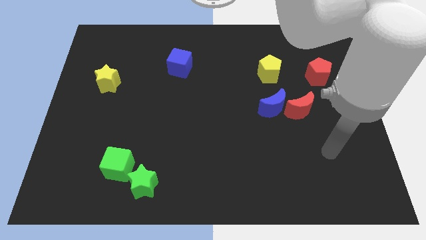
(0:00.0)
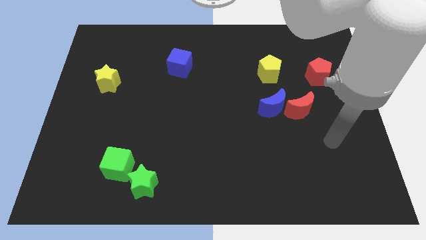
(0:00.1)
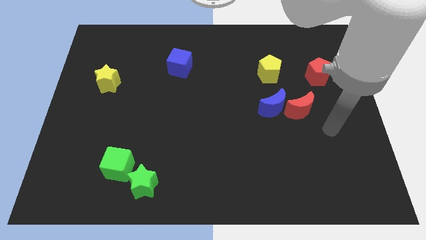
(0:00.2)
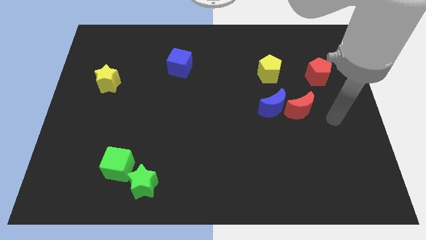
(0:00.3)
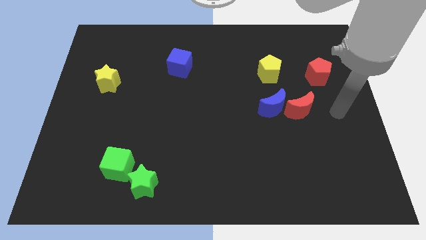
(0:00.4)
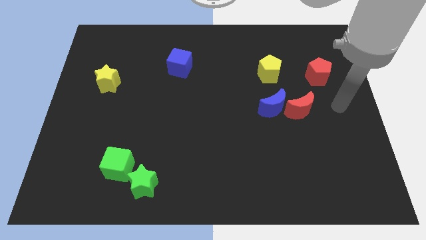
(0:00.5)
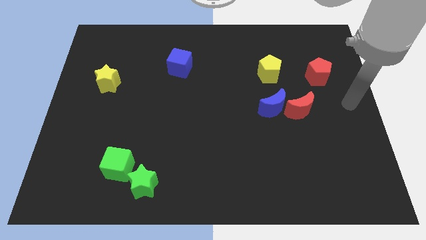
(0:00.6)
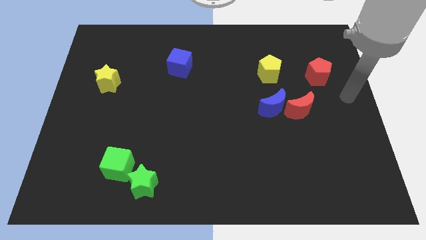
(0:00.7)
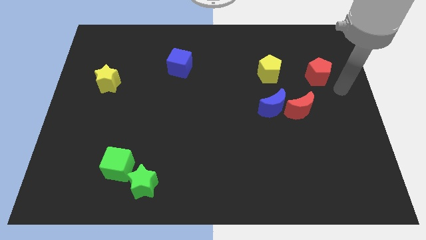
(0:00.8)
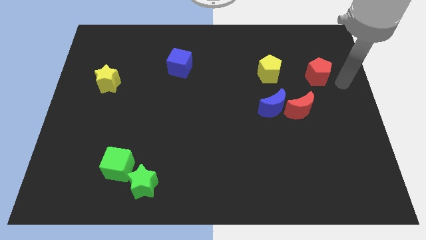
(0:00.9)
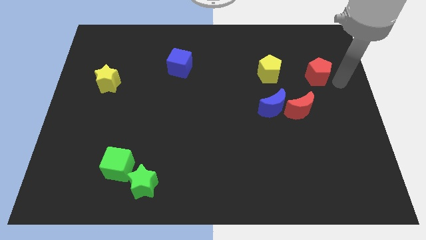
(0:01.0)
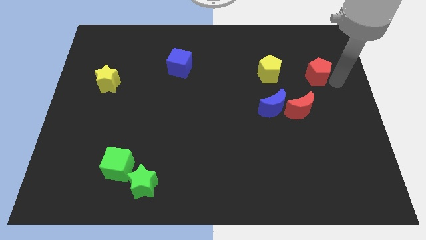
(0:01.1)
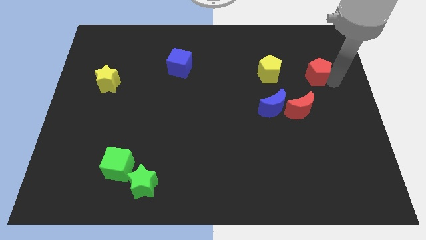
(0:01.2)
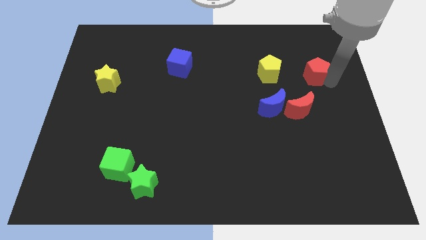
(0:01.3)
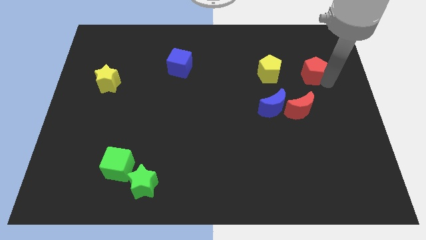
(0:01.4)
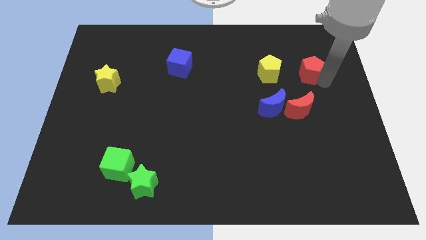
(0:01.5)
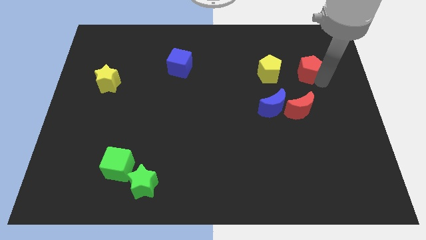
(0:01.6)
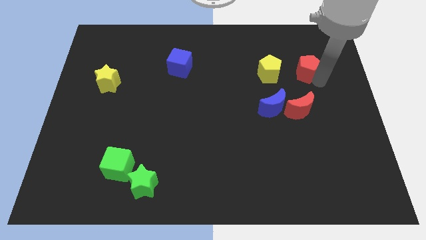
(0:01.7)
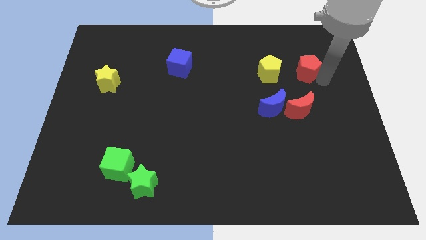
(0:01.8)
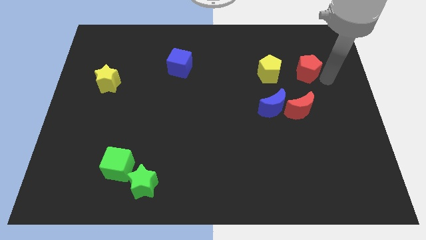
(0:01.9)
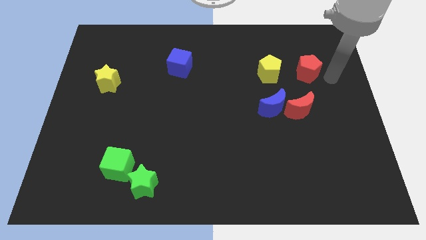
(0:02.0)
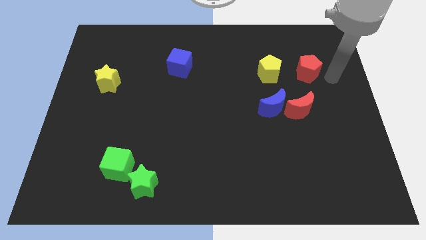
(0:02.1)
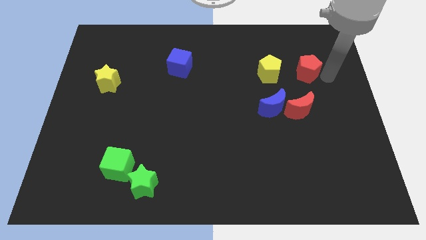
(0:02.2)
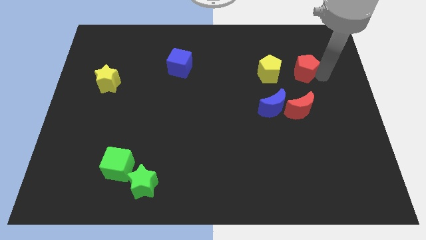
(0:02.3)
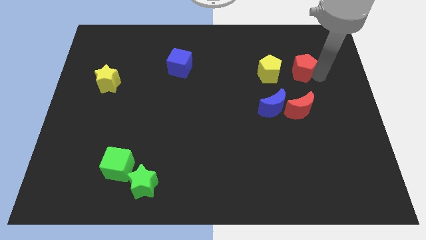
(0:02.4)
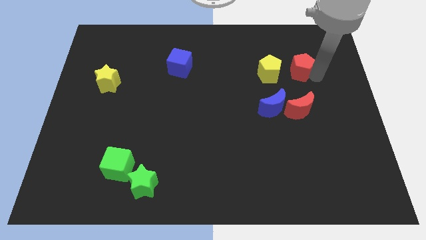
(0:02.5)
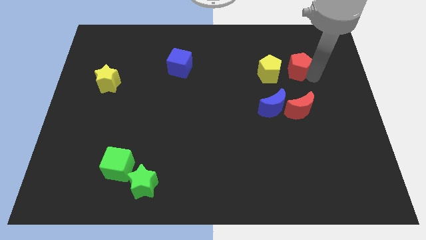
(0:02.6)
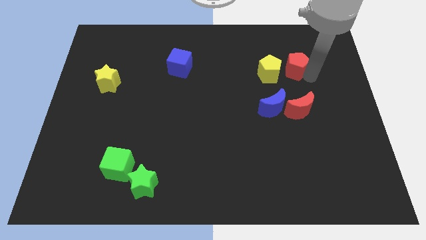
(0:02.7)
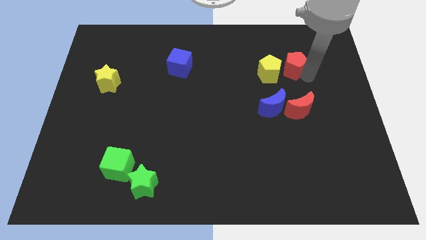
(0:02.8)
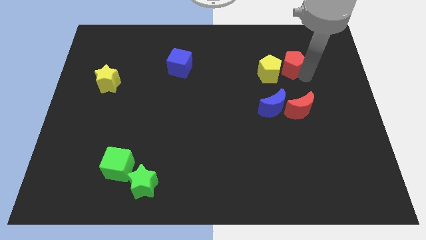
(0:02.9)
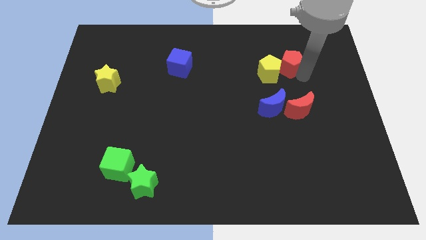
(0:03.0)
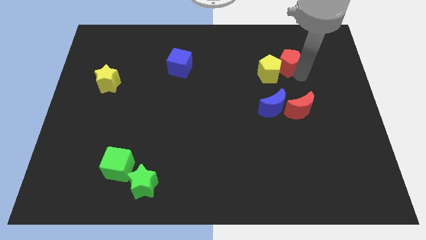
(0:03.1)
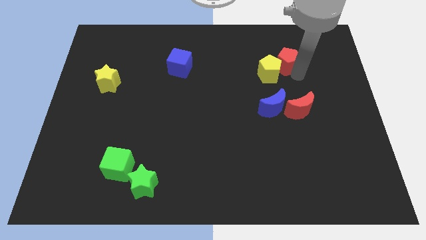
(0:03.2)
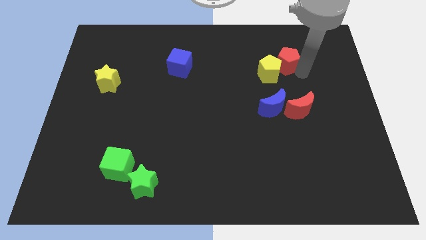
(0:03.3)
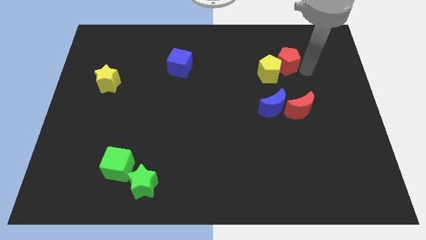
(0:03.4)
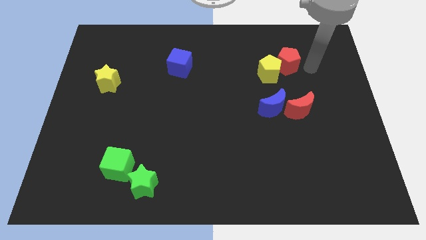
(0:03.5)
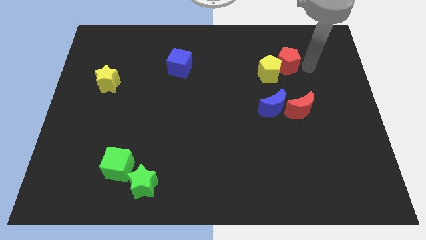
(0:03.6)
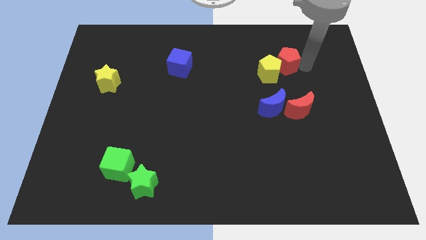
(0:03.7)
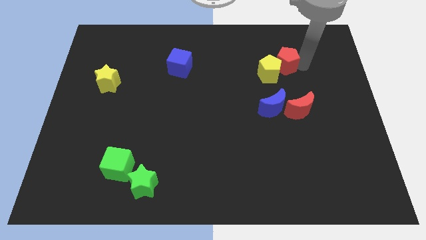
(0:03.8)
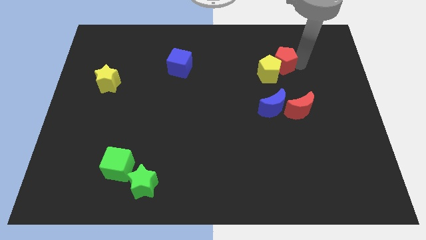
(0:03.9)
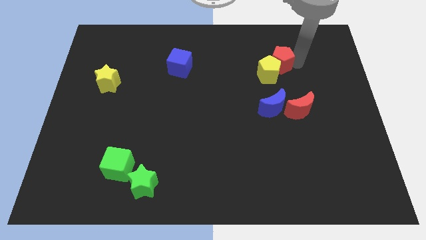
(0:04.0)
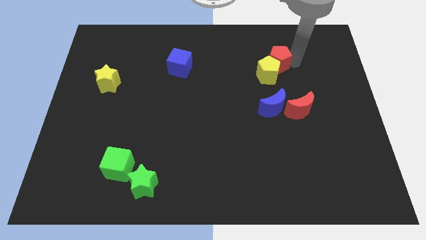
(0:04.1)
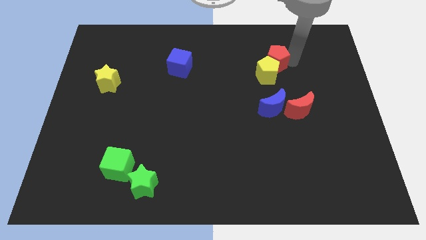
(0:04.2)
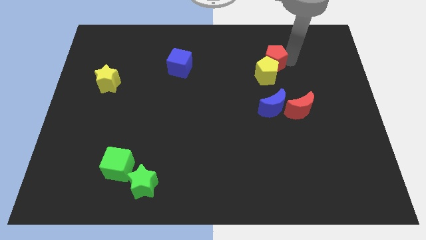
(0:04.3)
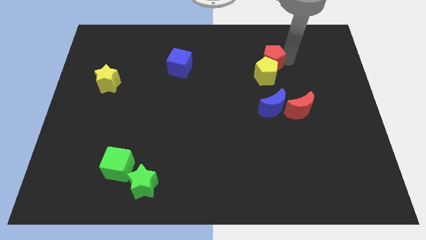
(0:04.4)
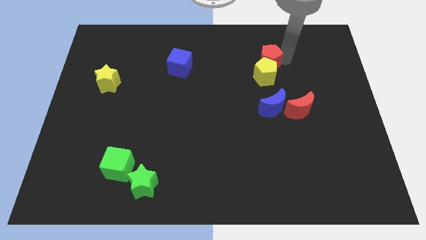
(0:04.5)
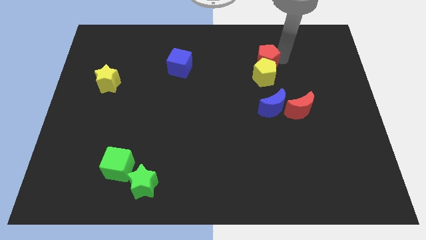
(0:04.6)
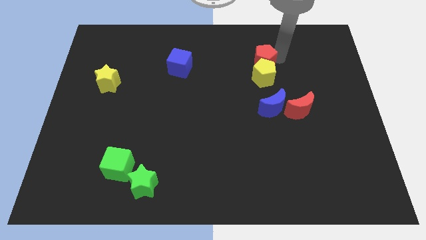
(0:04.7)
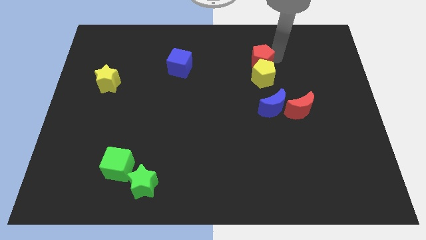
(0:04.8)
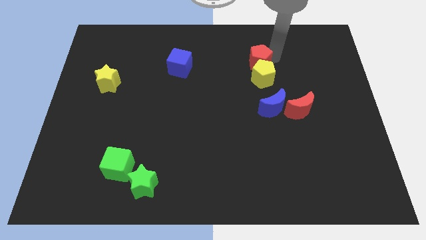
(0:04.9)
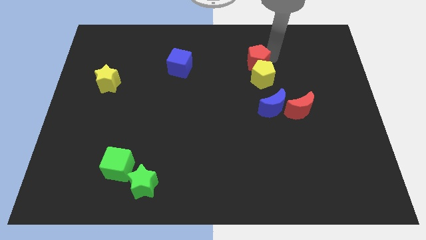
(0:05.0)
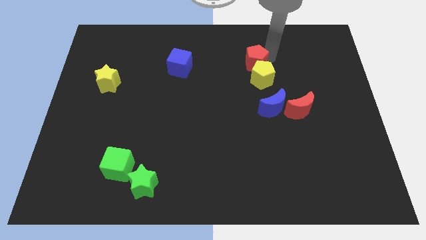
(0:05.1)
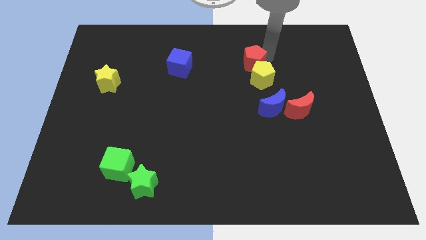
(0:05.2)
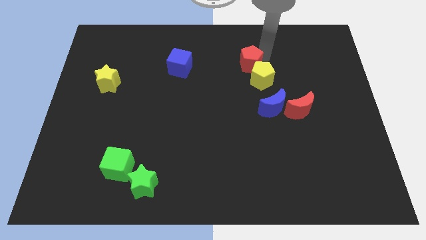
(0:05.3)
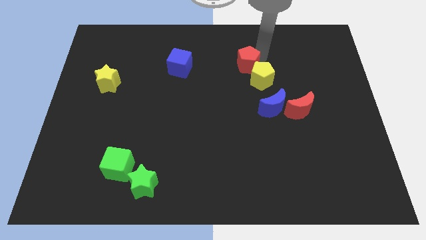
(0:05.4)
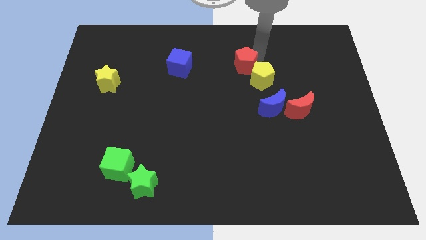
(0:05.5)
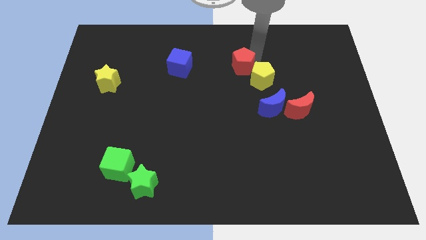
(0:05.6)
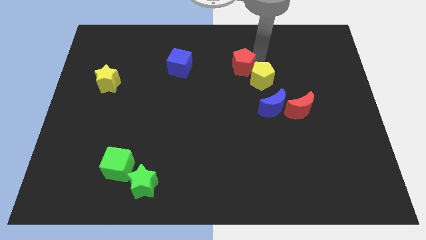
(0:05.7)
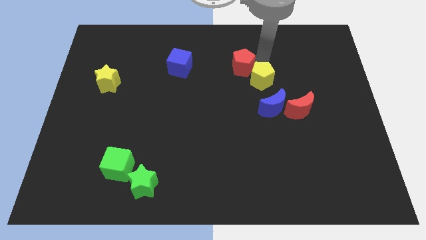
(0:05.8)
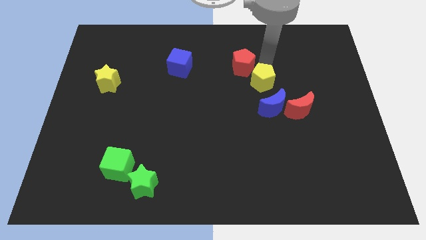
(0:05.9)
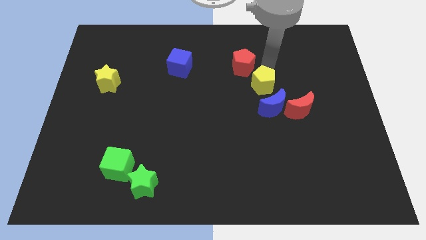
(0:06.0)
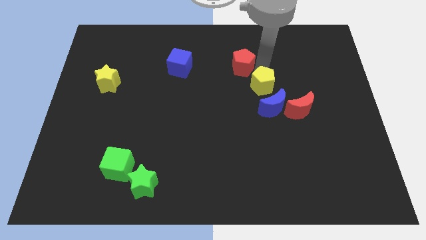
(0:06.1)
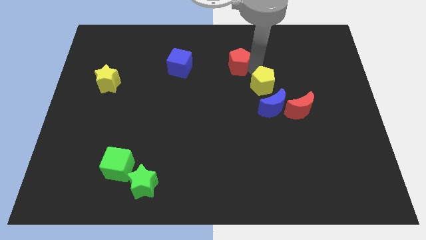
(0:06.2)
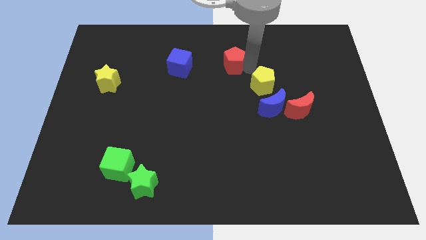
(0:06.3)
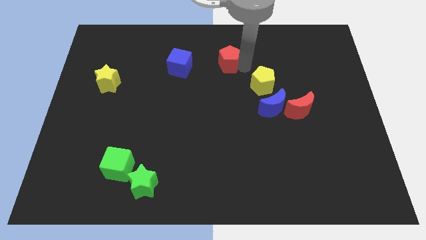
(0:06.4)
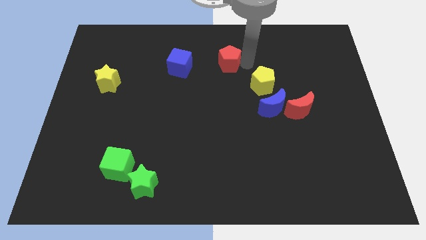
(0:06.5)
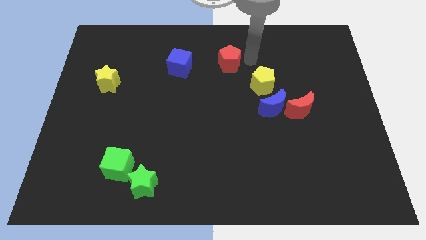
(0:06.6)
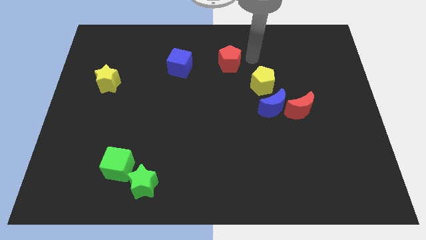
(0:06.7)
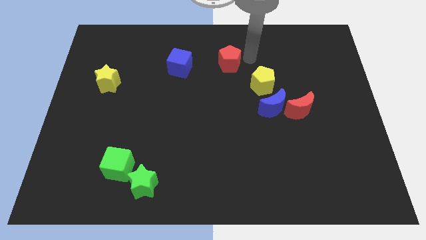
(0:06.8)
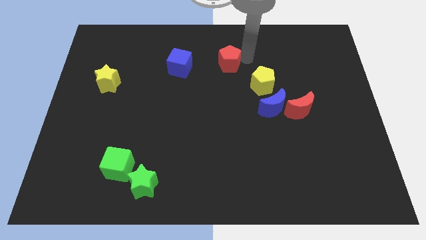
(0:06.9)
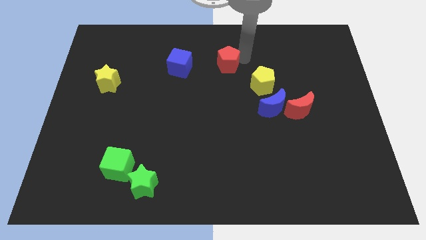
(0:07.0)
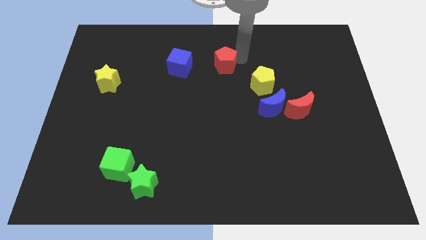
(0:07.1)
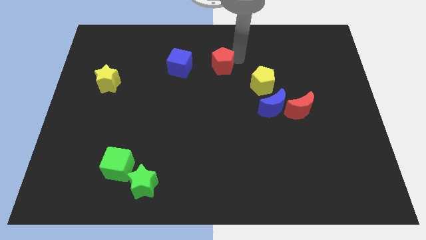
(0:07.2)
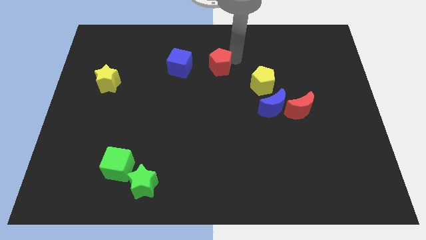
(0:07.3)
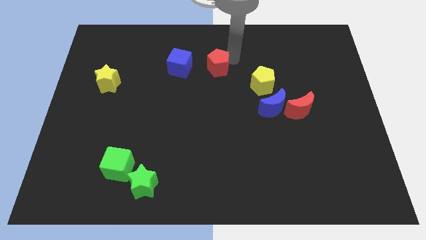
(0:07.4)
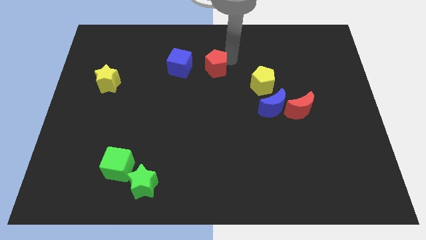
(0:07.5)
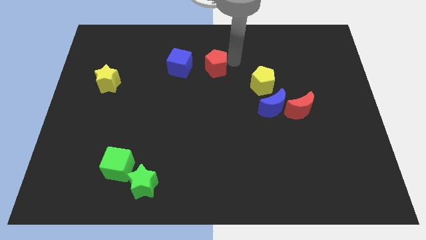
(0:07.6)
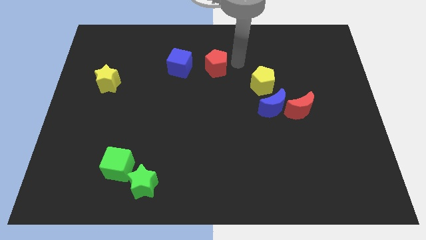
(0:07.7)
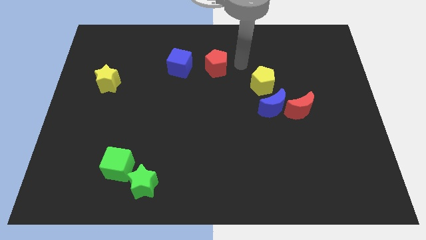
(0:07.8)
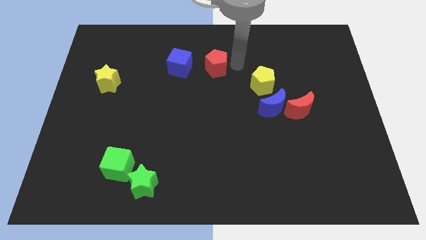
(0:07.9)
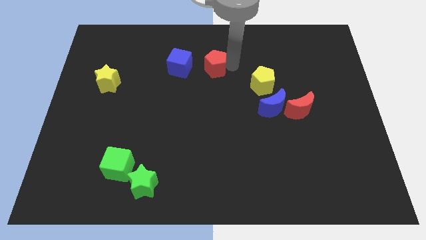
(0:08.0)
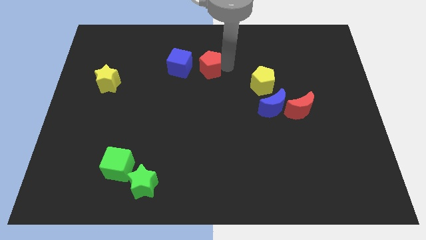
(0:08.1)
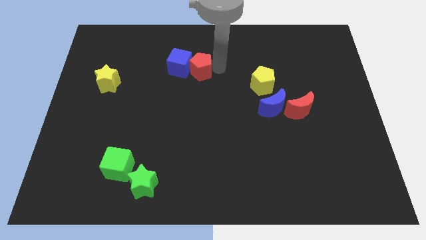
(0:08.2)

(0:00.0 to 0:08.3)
push the red pentagon towards the blue cube
